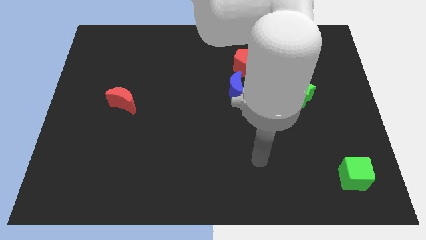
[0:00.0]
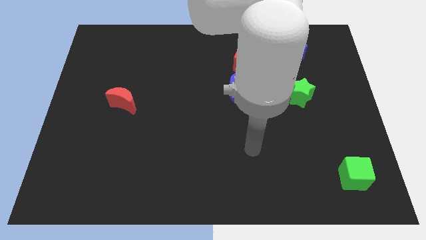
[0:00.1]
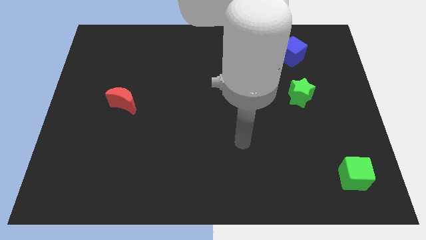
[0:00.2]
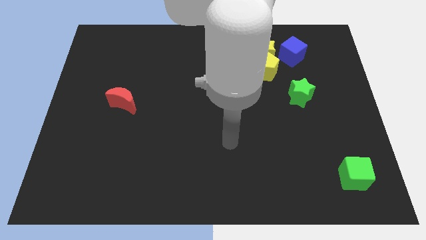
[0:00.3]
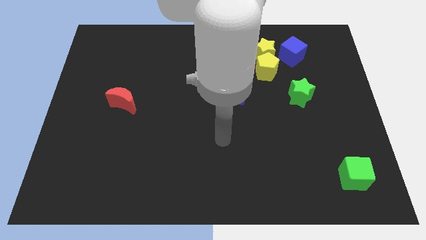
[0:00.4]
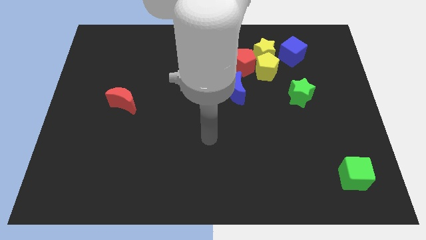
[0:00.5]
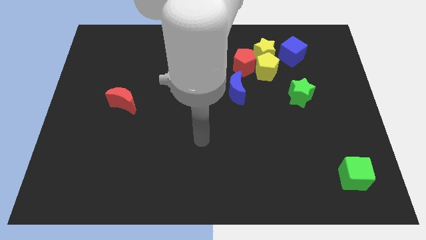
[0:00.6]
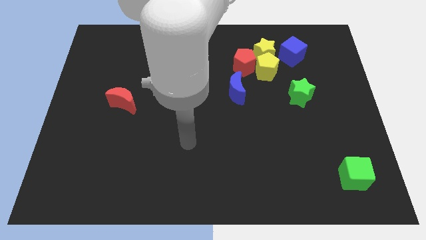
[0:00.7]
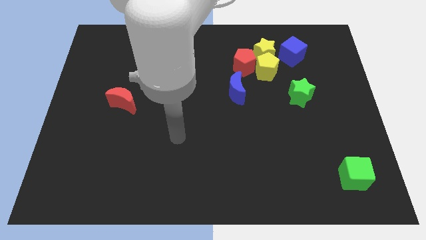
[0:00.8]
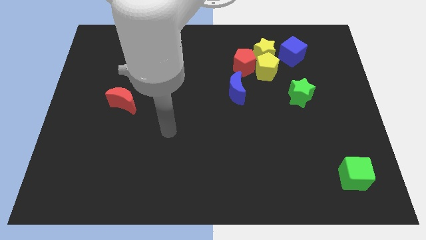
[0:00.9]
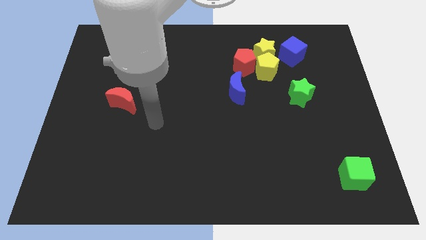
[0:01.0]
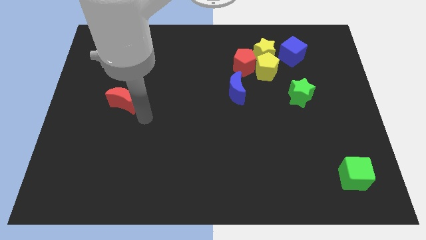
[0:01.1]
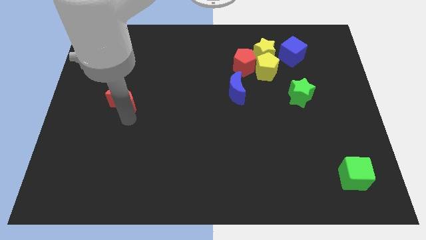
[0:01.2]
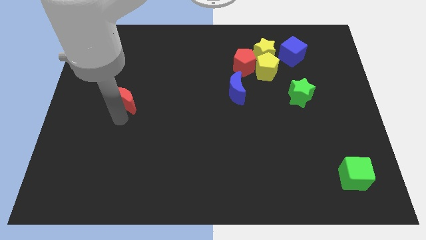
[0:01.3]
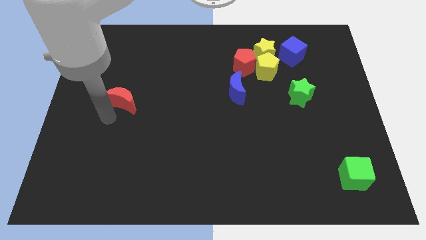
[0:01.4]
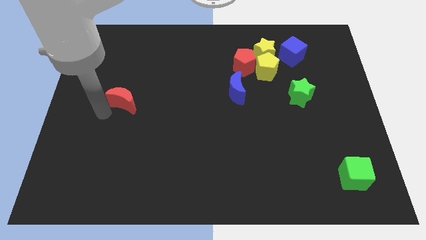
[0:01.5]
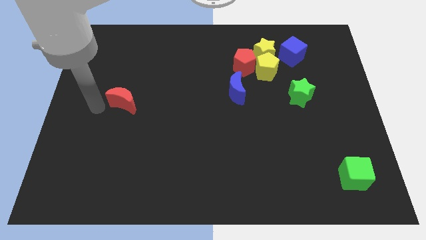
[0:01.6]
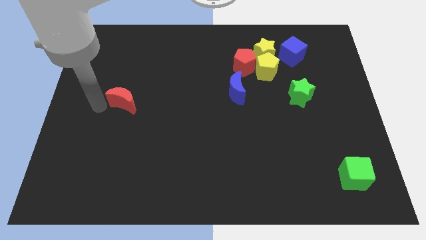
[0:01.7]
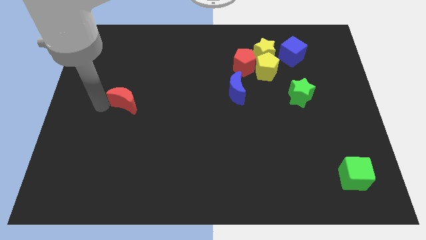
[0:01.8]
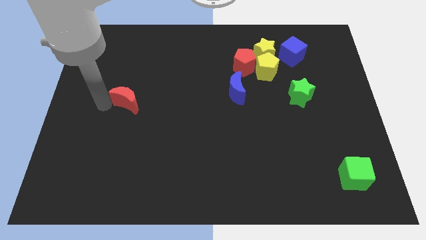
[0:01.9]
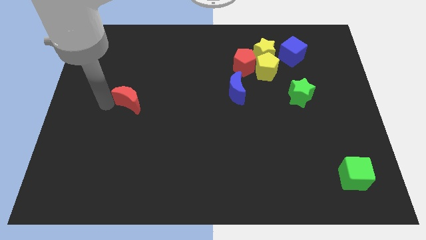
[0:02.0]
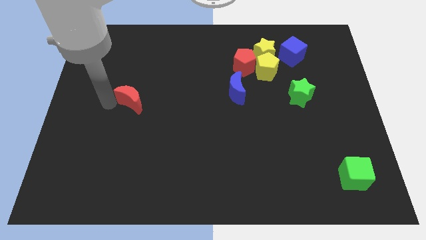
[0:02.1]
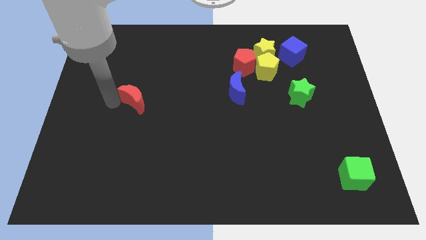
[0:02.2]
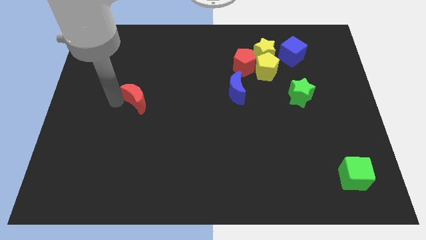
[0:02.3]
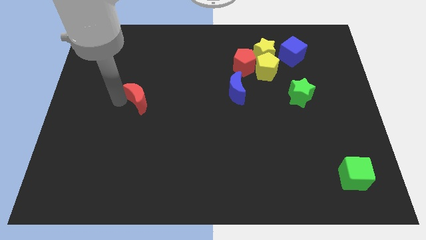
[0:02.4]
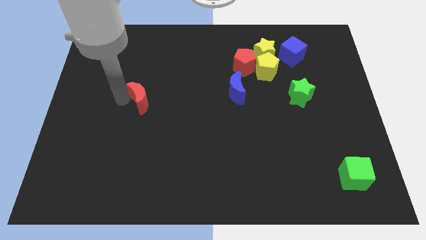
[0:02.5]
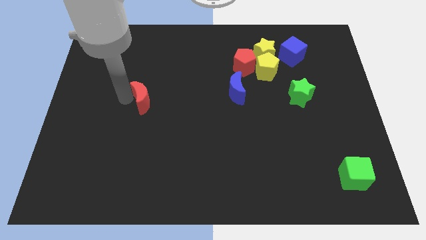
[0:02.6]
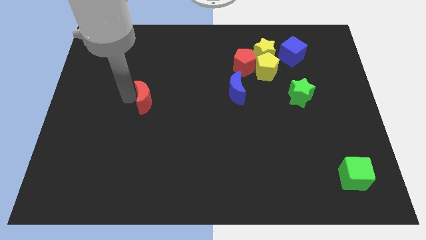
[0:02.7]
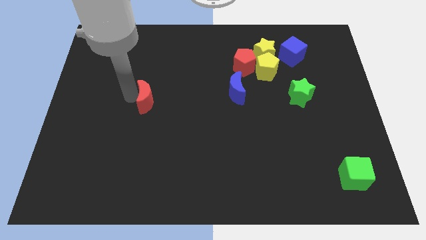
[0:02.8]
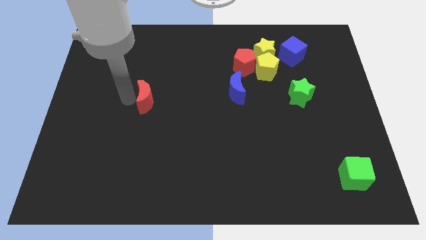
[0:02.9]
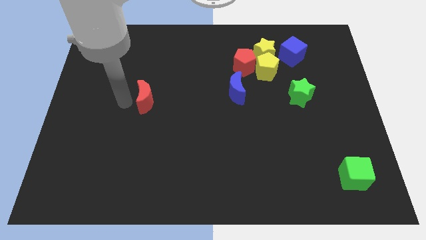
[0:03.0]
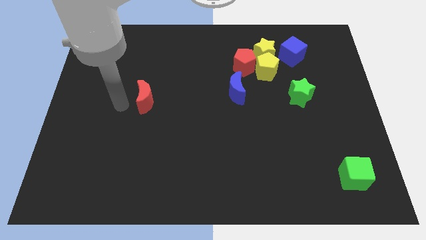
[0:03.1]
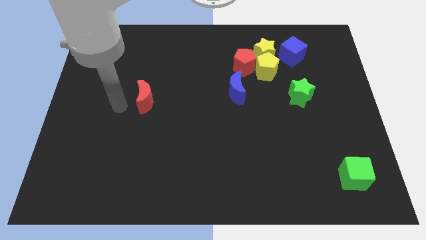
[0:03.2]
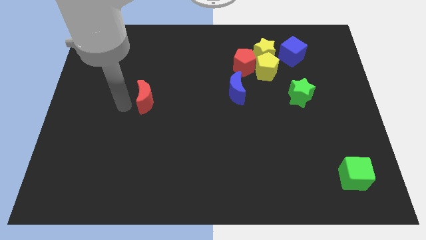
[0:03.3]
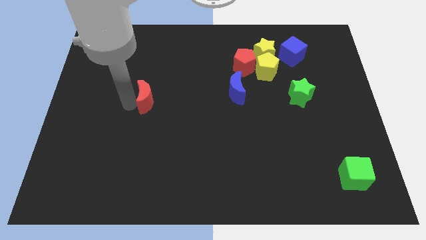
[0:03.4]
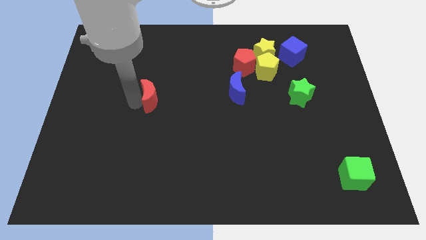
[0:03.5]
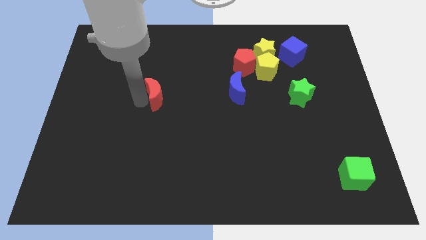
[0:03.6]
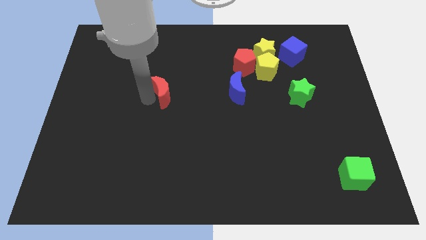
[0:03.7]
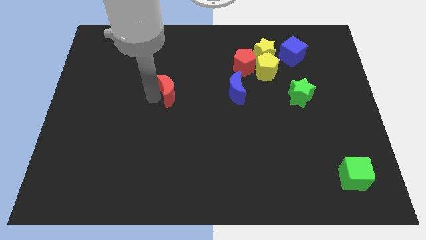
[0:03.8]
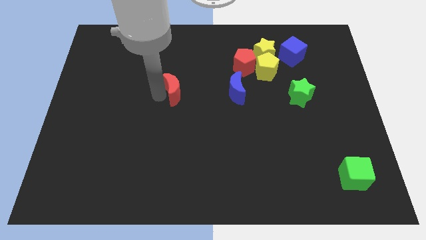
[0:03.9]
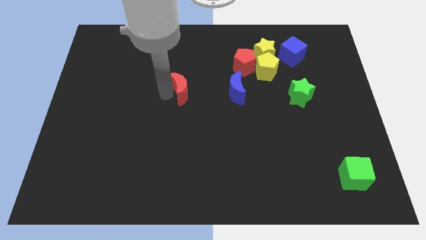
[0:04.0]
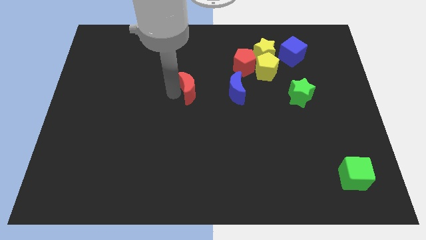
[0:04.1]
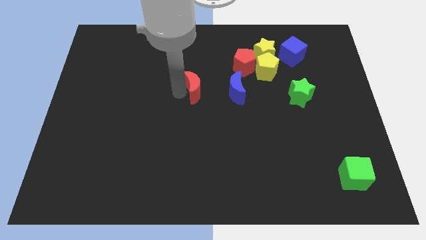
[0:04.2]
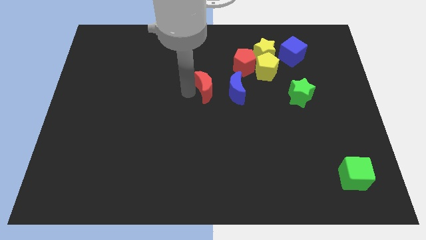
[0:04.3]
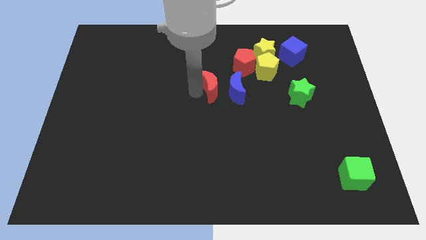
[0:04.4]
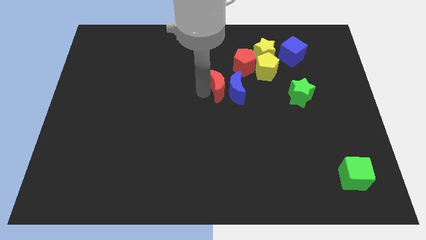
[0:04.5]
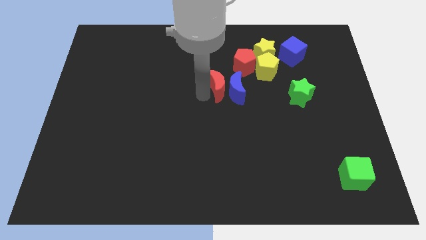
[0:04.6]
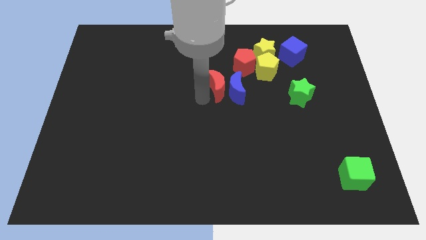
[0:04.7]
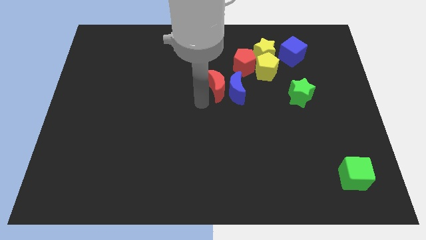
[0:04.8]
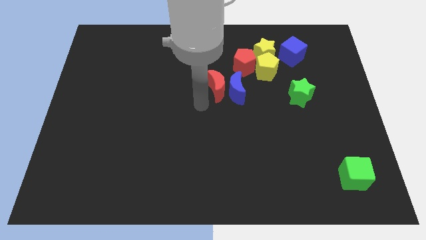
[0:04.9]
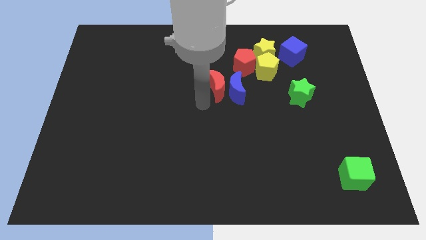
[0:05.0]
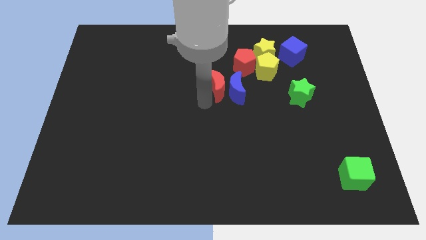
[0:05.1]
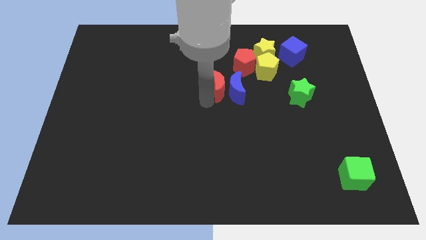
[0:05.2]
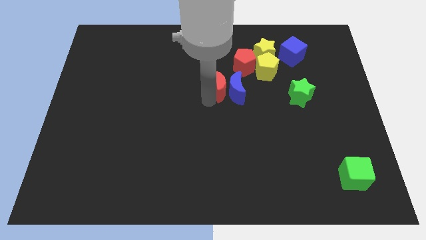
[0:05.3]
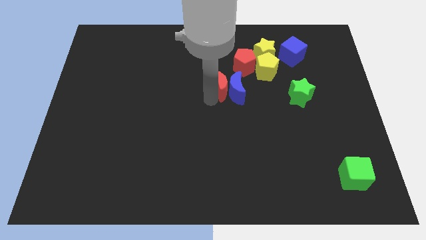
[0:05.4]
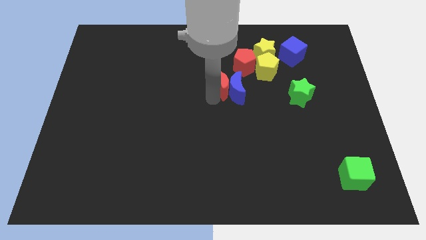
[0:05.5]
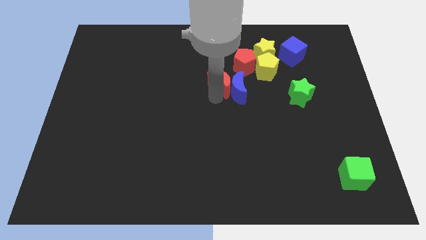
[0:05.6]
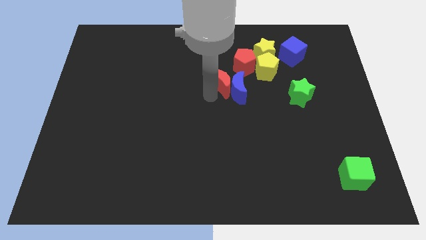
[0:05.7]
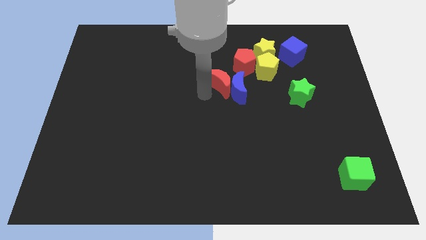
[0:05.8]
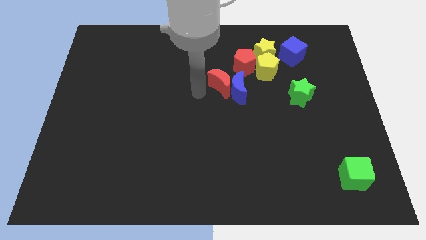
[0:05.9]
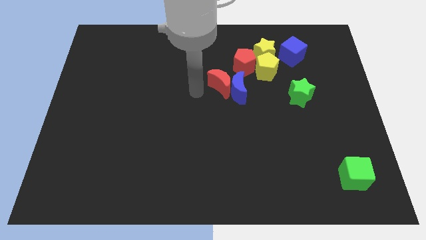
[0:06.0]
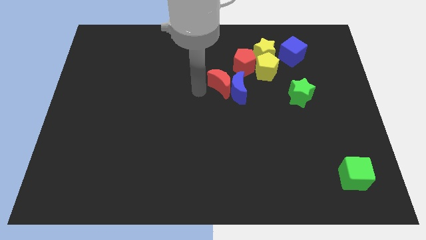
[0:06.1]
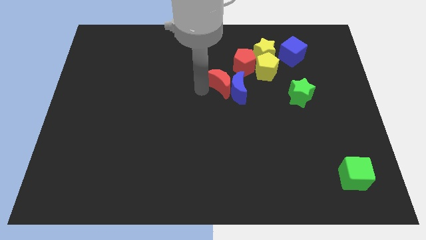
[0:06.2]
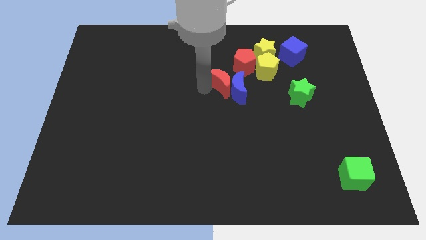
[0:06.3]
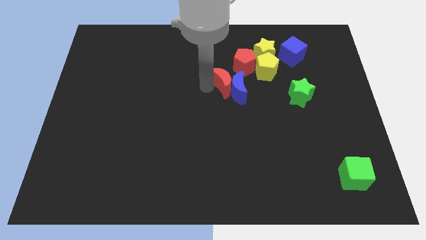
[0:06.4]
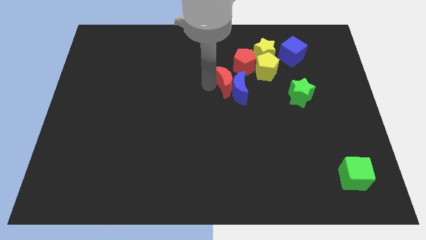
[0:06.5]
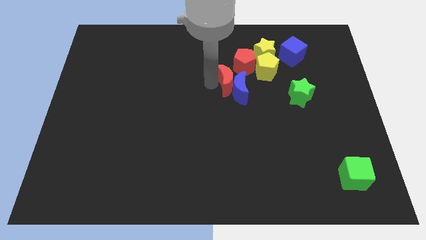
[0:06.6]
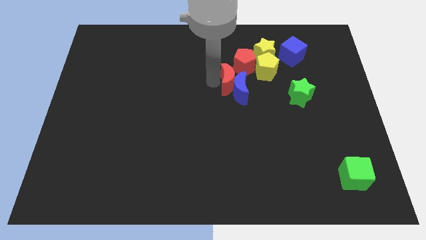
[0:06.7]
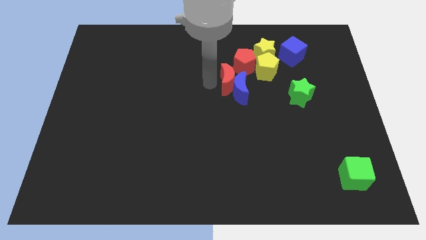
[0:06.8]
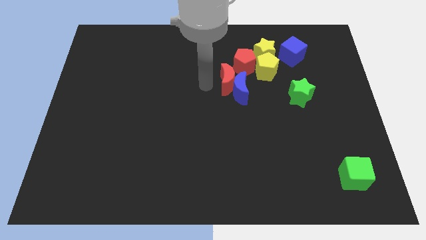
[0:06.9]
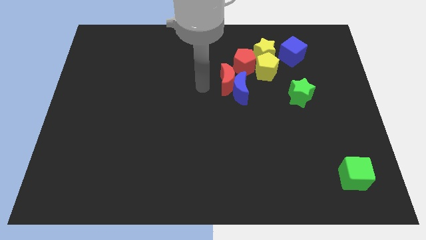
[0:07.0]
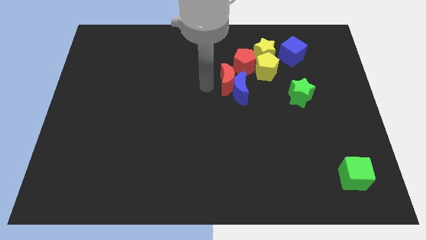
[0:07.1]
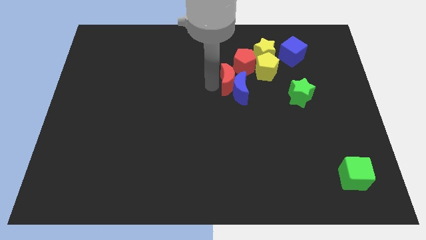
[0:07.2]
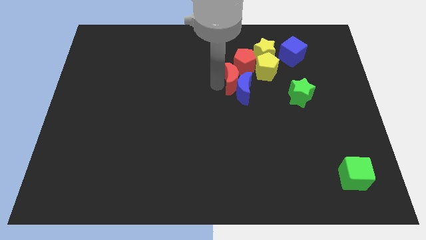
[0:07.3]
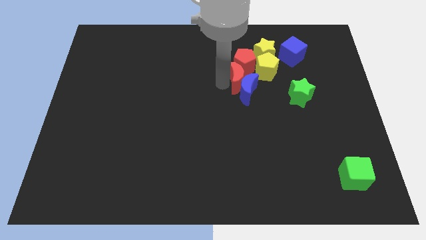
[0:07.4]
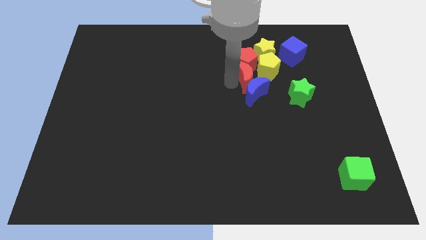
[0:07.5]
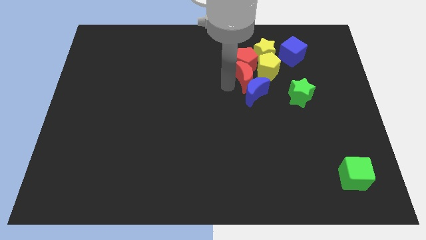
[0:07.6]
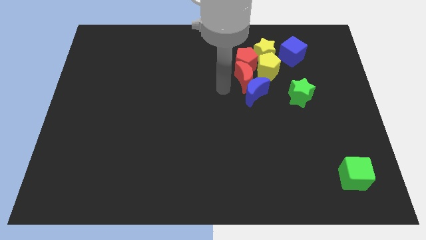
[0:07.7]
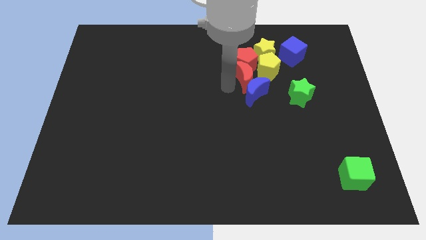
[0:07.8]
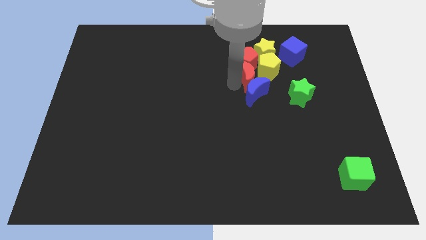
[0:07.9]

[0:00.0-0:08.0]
move the red moon next to the yellow pentagon
